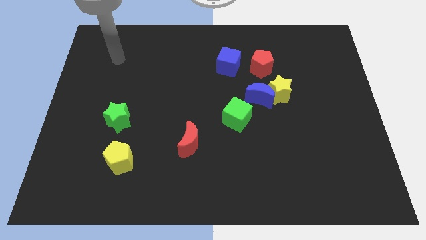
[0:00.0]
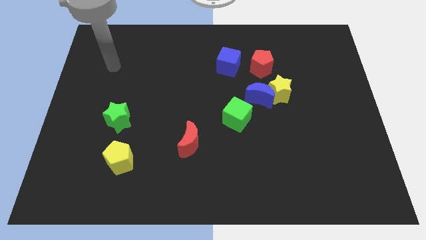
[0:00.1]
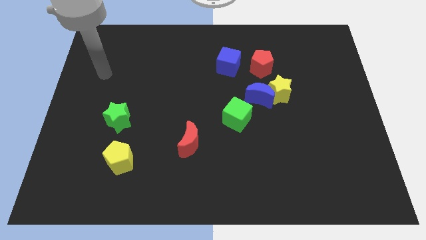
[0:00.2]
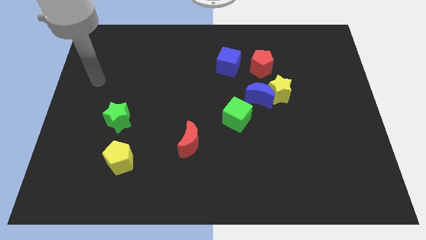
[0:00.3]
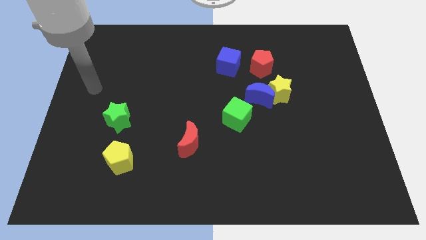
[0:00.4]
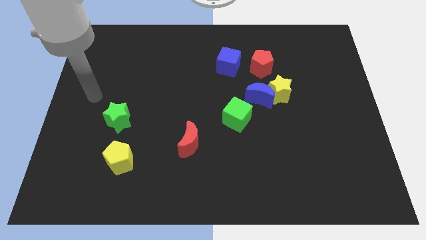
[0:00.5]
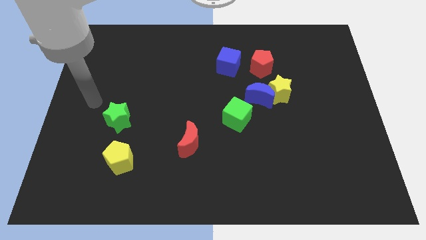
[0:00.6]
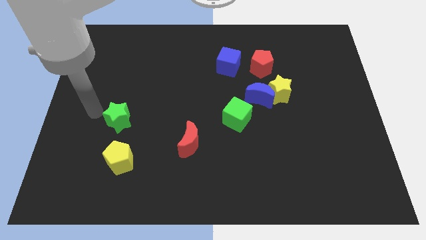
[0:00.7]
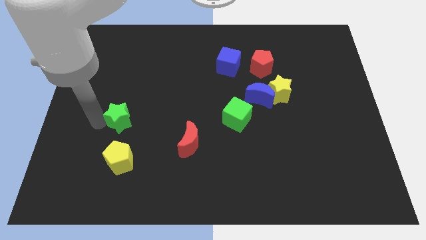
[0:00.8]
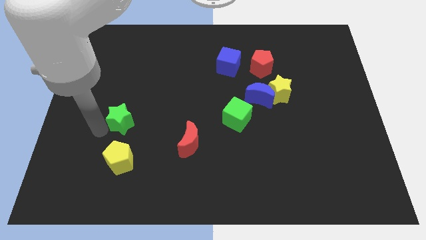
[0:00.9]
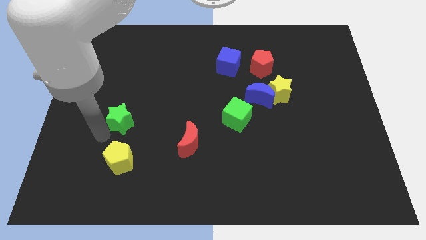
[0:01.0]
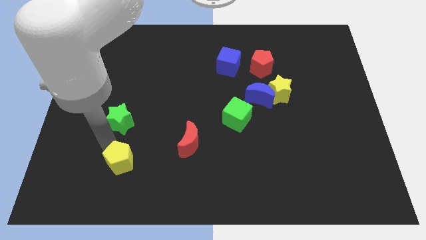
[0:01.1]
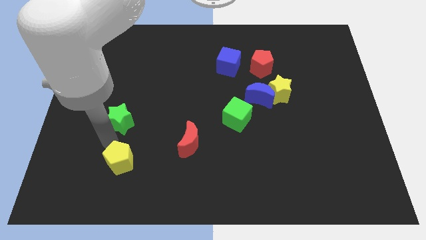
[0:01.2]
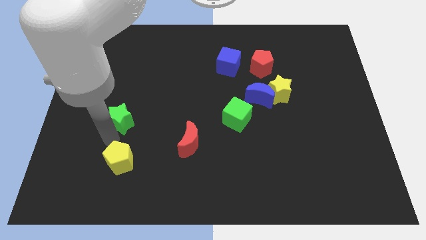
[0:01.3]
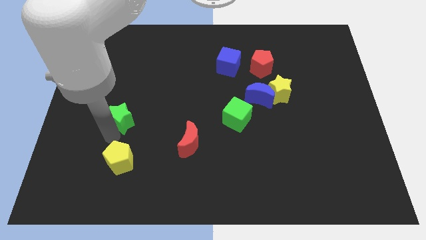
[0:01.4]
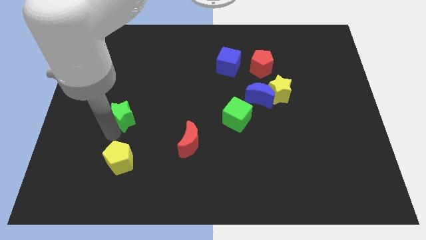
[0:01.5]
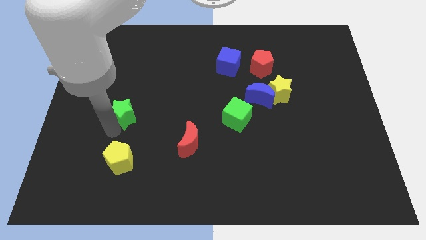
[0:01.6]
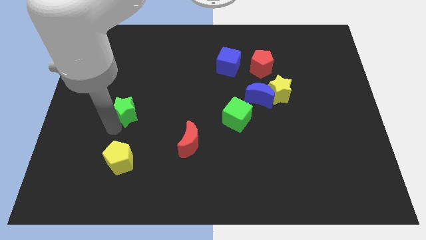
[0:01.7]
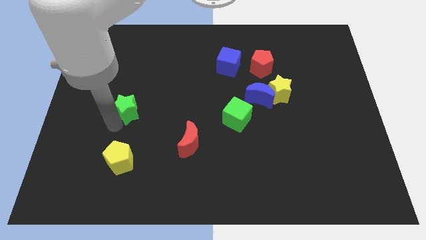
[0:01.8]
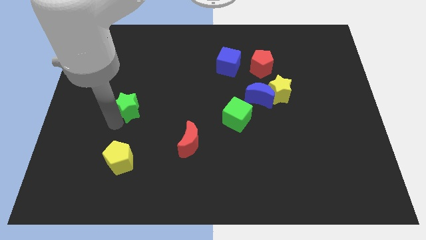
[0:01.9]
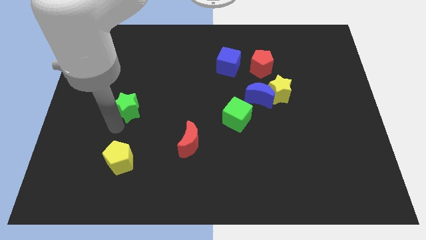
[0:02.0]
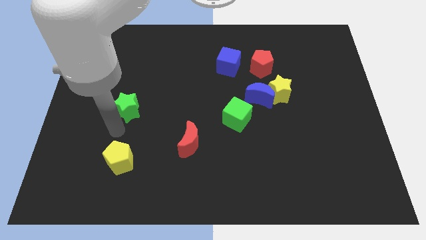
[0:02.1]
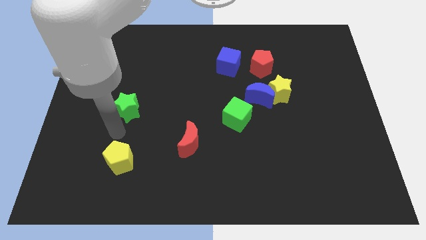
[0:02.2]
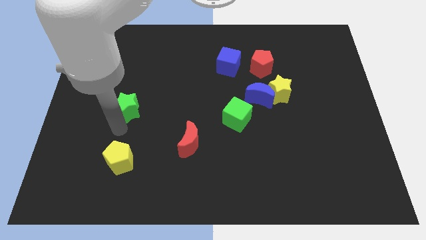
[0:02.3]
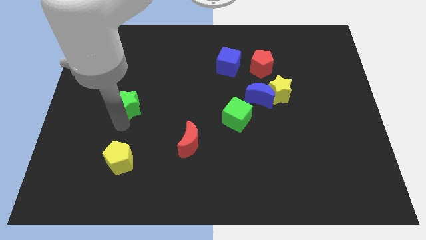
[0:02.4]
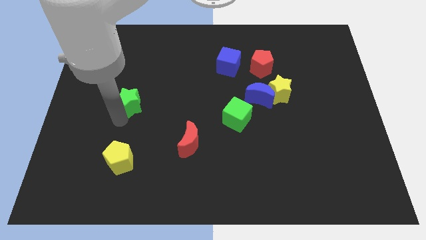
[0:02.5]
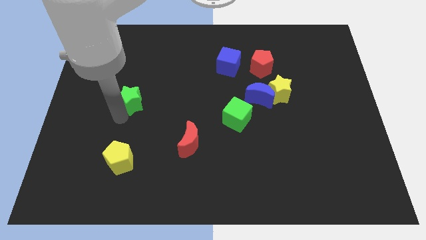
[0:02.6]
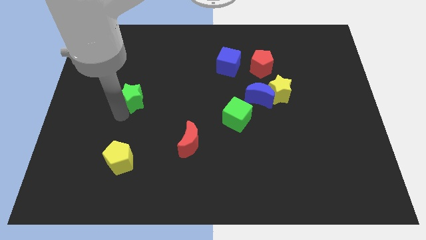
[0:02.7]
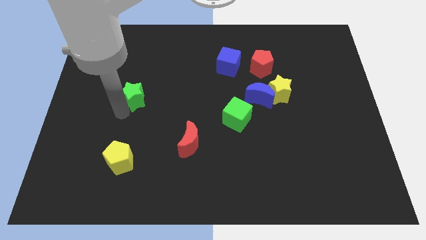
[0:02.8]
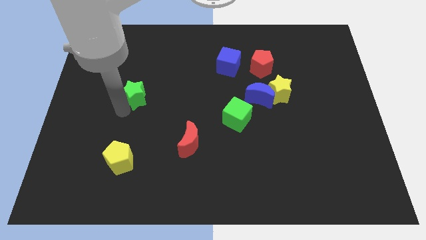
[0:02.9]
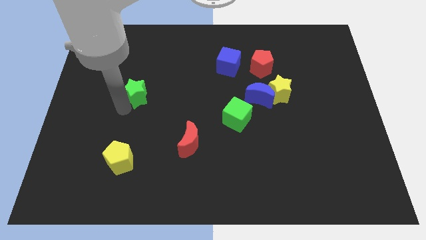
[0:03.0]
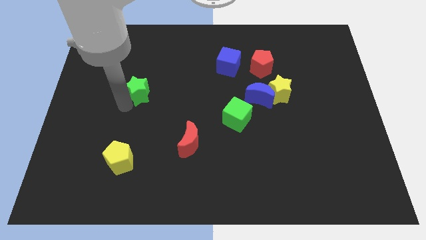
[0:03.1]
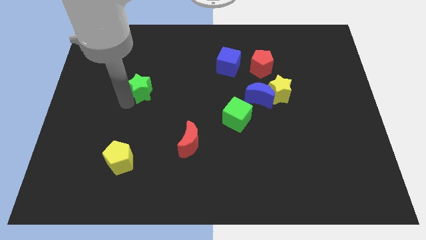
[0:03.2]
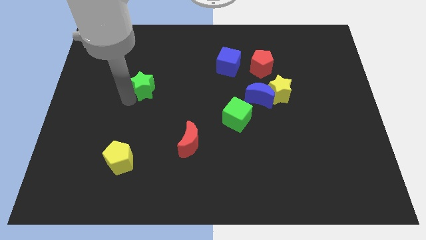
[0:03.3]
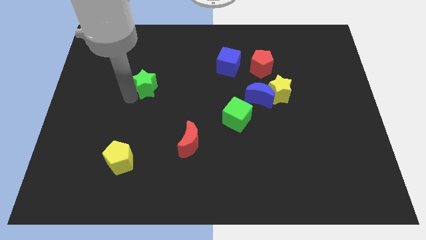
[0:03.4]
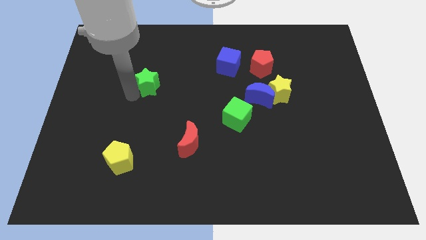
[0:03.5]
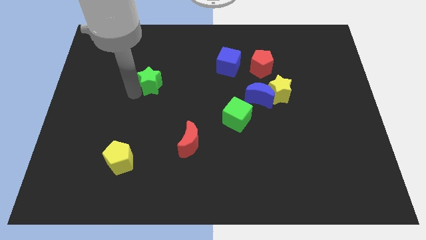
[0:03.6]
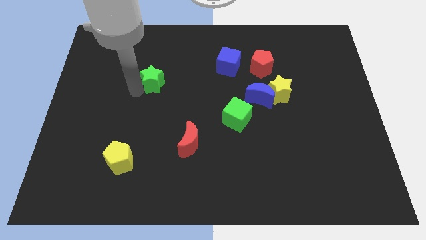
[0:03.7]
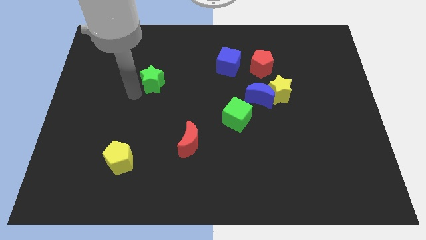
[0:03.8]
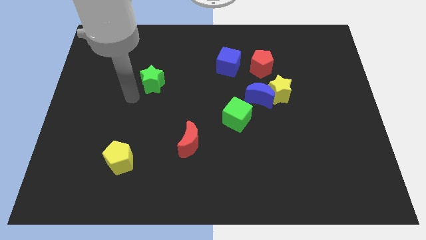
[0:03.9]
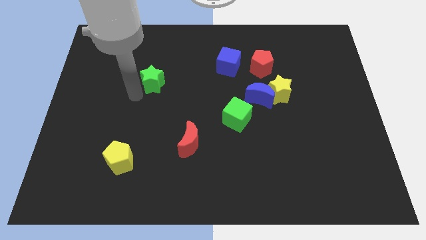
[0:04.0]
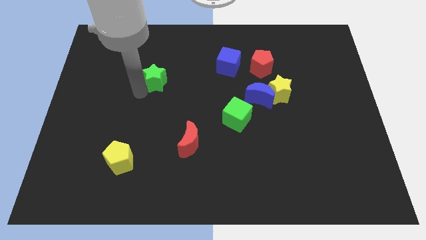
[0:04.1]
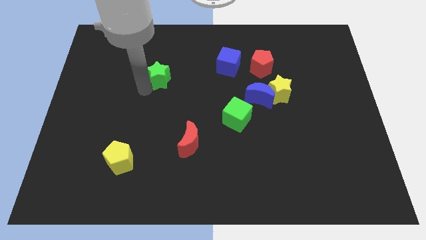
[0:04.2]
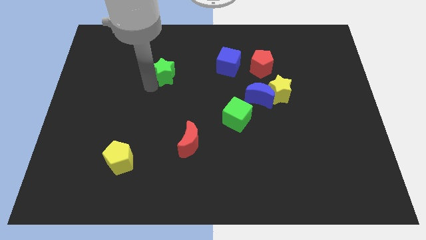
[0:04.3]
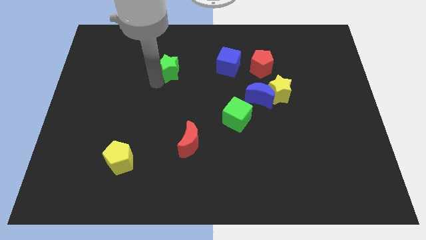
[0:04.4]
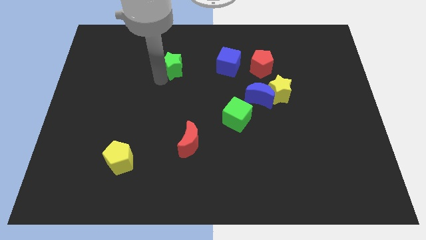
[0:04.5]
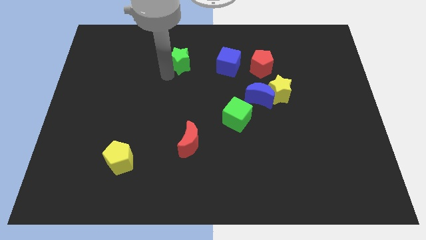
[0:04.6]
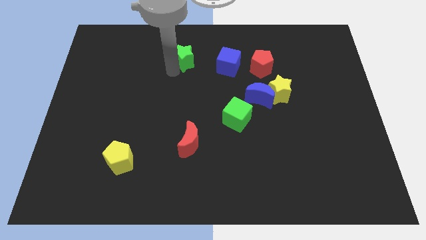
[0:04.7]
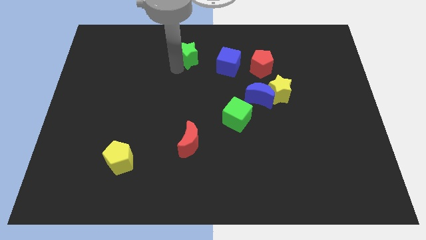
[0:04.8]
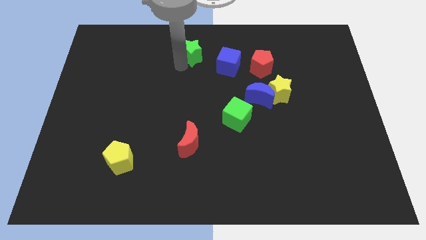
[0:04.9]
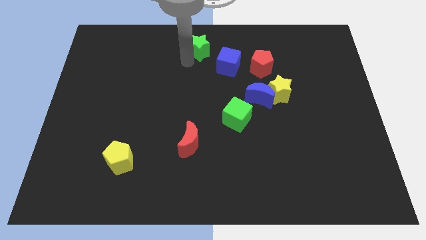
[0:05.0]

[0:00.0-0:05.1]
push the green star to the top
